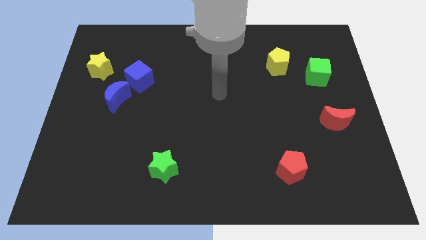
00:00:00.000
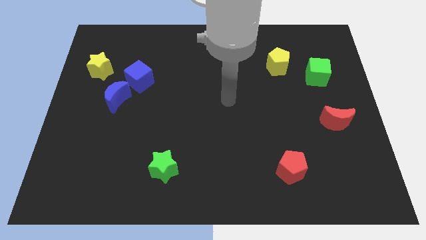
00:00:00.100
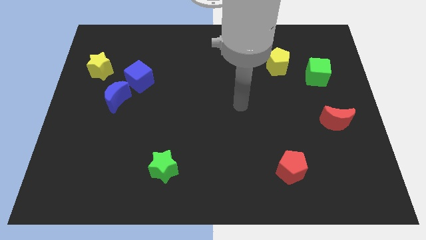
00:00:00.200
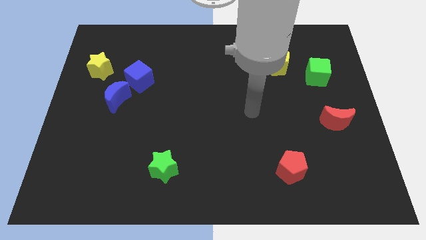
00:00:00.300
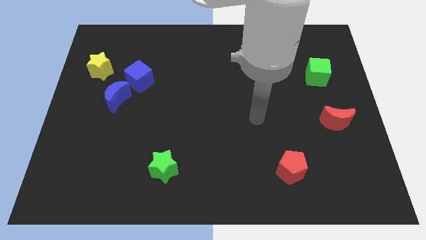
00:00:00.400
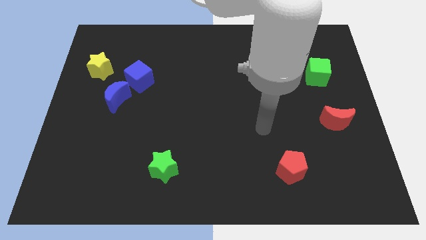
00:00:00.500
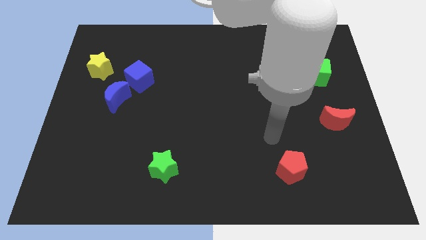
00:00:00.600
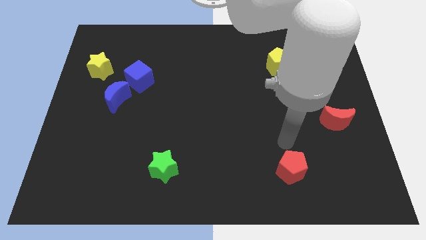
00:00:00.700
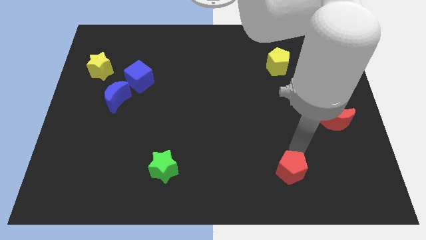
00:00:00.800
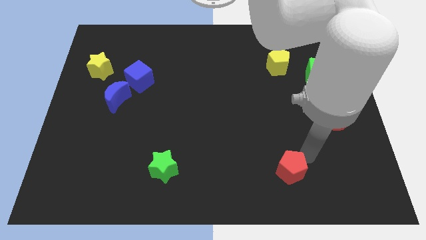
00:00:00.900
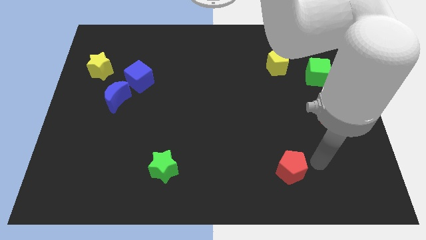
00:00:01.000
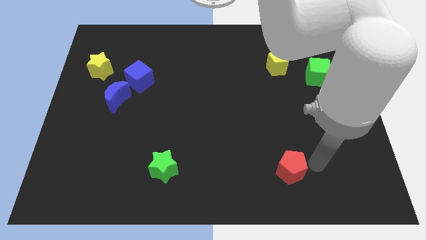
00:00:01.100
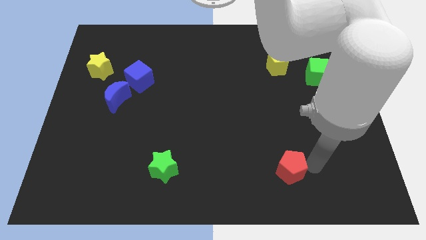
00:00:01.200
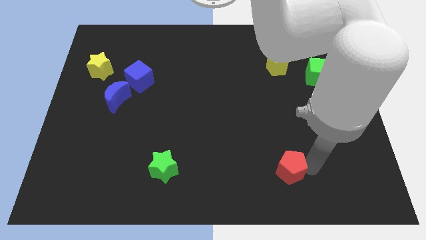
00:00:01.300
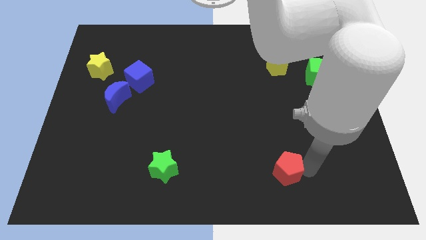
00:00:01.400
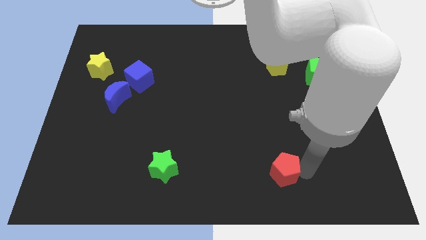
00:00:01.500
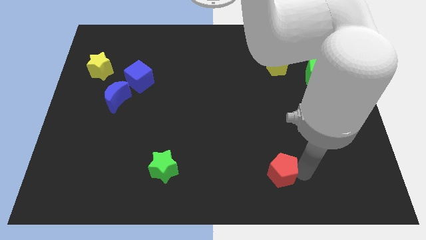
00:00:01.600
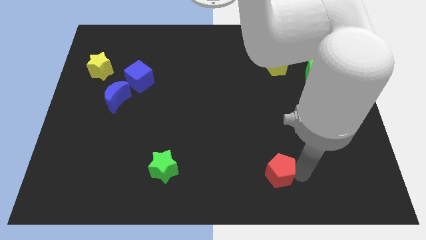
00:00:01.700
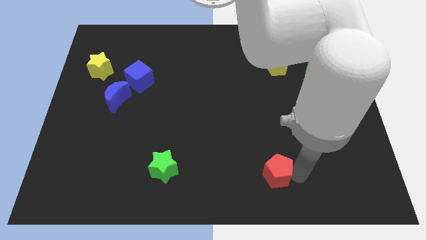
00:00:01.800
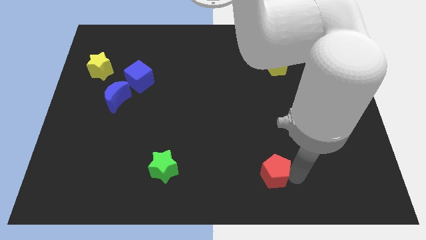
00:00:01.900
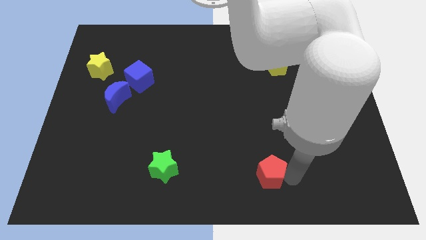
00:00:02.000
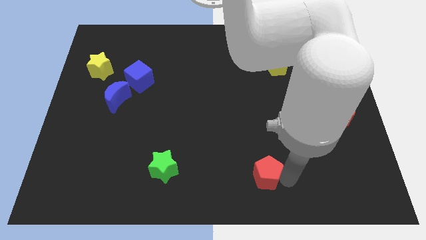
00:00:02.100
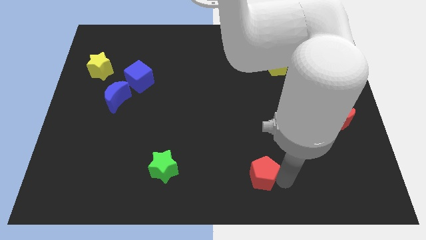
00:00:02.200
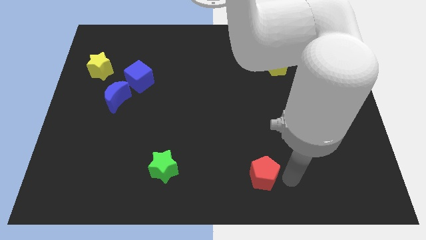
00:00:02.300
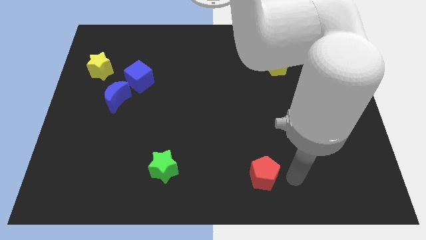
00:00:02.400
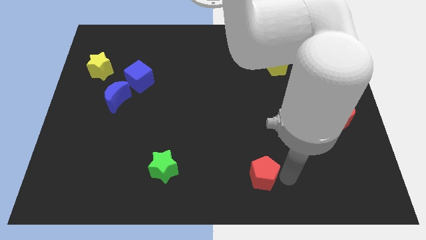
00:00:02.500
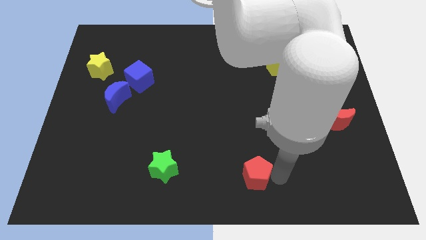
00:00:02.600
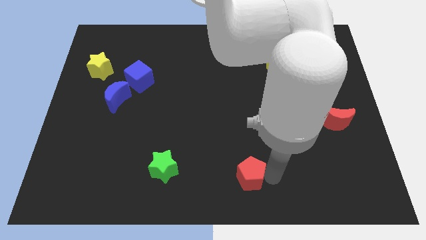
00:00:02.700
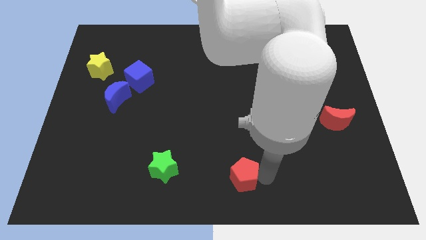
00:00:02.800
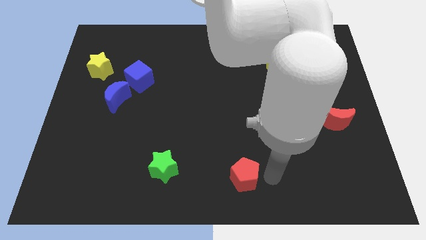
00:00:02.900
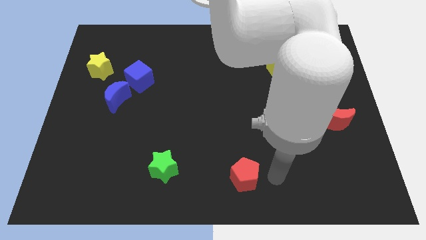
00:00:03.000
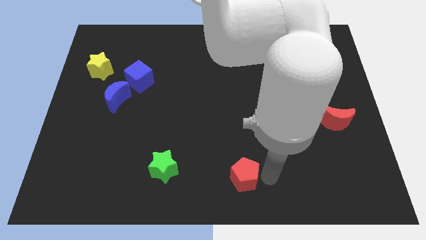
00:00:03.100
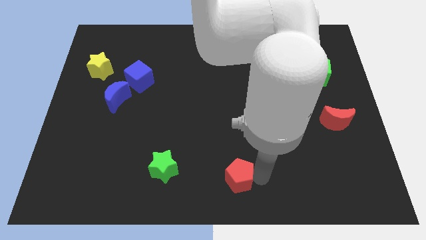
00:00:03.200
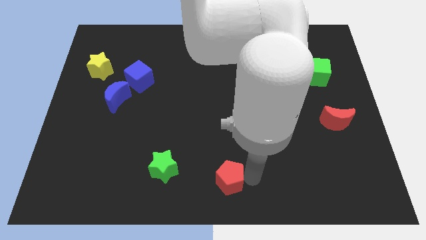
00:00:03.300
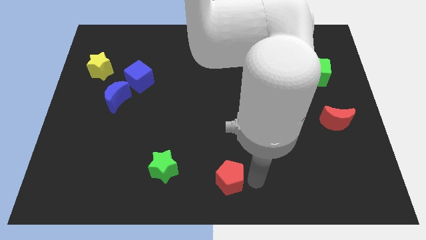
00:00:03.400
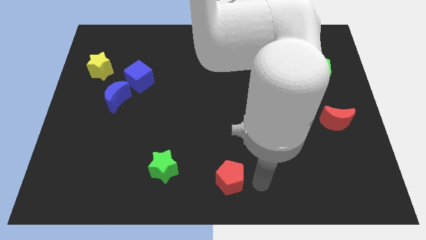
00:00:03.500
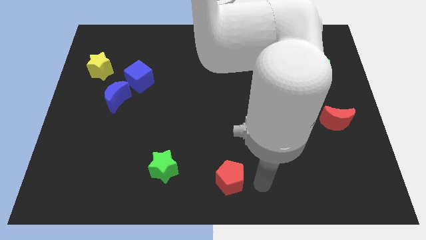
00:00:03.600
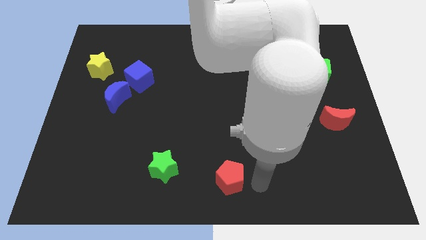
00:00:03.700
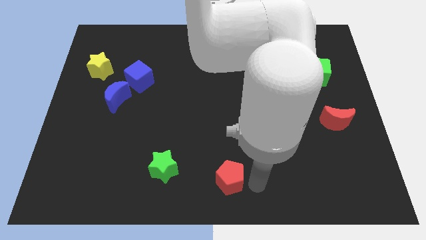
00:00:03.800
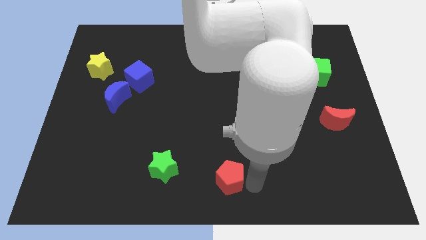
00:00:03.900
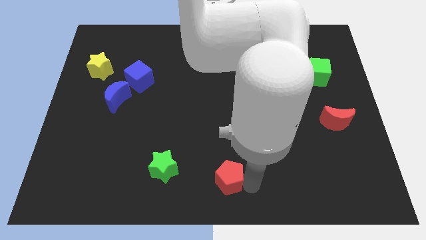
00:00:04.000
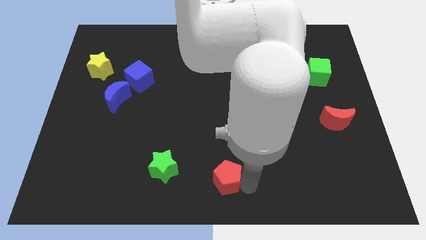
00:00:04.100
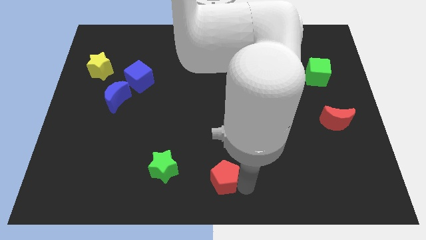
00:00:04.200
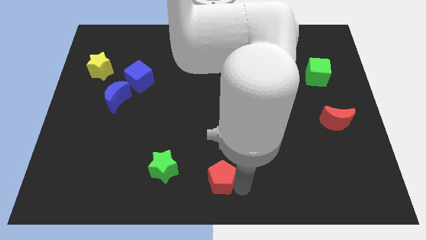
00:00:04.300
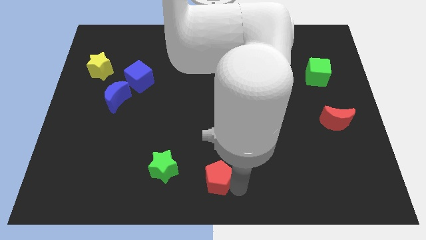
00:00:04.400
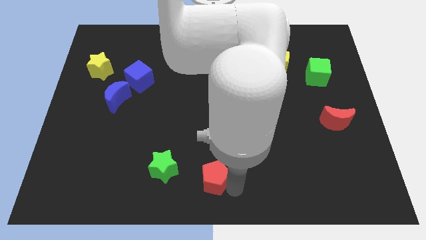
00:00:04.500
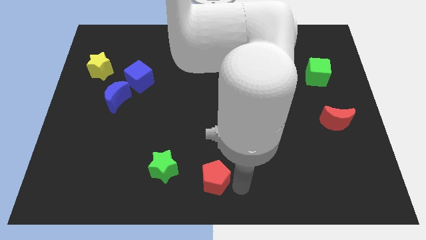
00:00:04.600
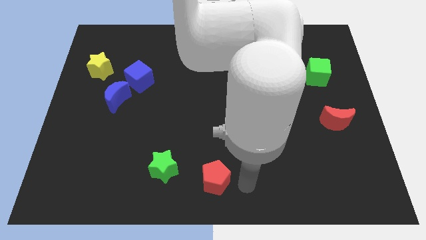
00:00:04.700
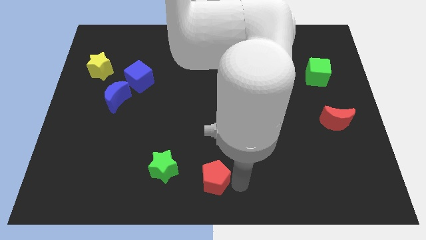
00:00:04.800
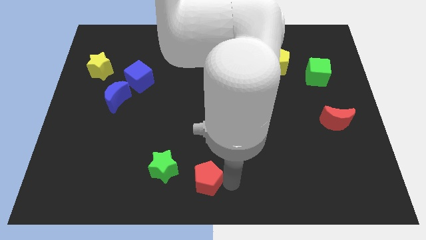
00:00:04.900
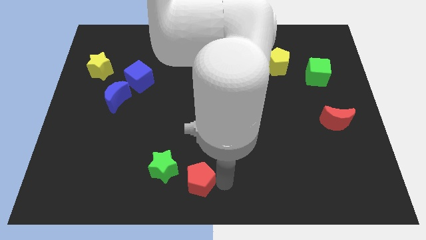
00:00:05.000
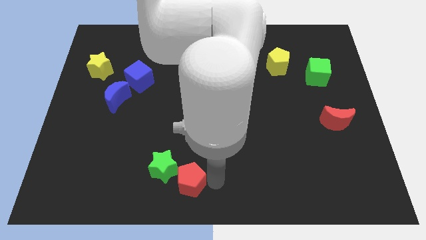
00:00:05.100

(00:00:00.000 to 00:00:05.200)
move the red pentagon left

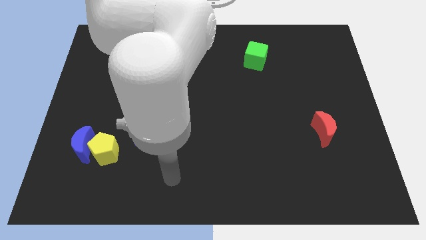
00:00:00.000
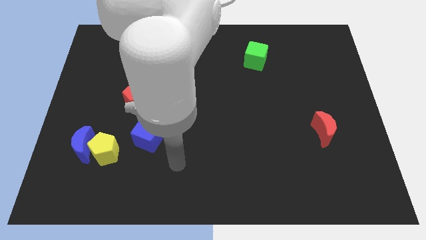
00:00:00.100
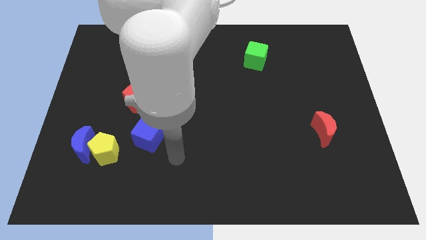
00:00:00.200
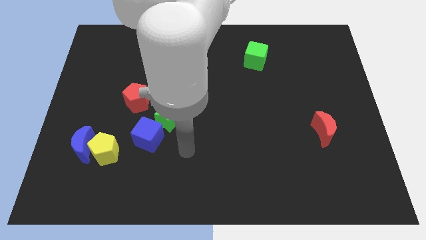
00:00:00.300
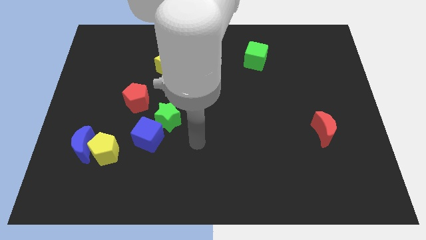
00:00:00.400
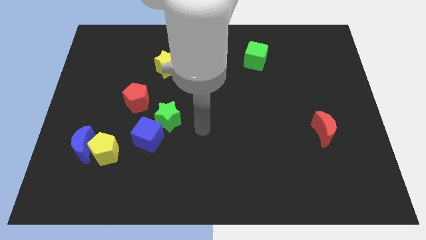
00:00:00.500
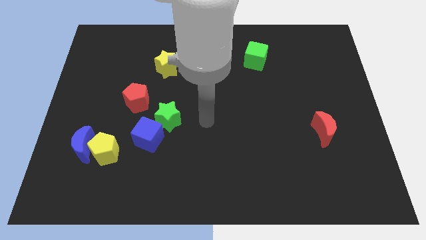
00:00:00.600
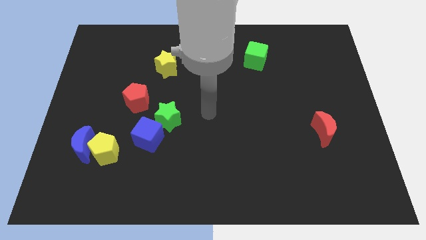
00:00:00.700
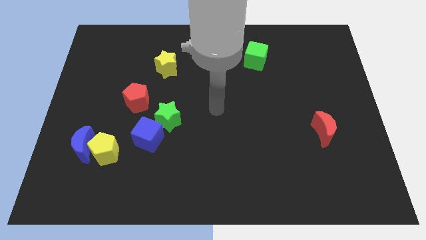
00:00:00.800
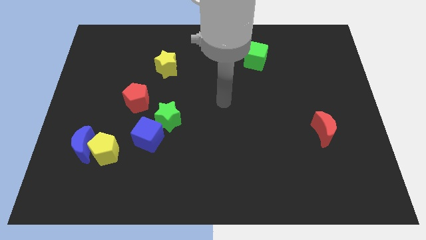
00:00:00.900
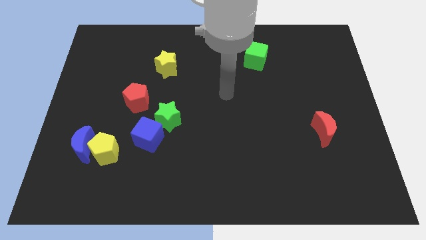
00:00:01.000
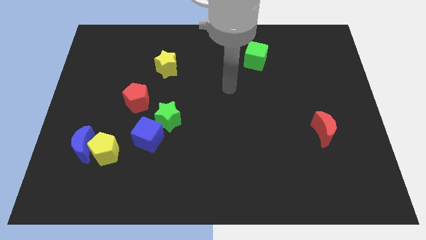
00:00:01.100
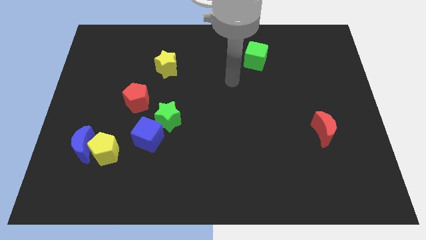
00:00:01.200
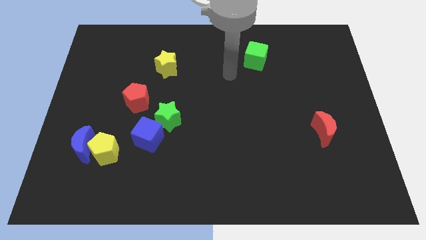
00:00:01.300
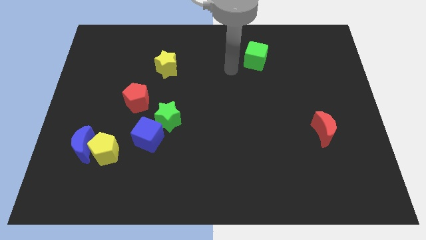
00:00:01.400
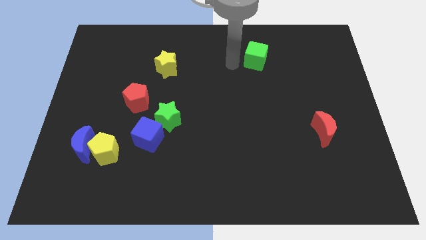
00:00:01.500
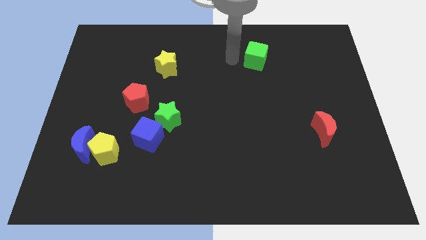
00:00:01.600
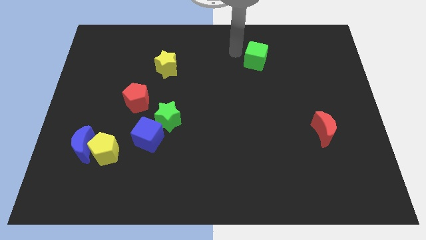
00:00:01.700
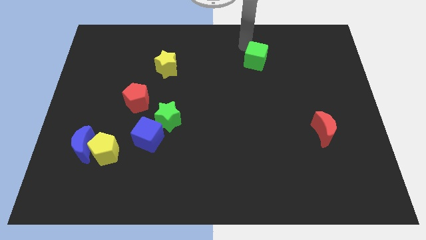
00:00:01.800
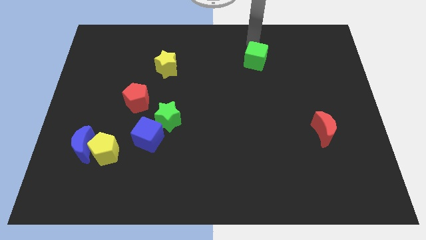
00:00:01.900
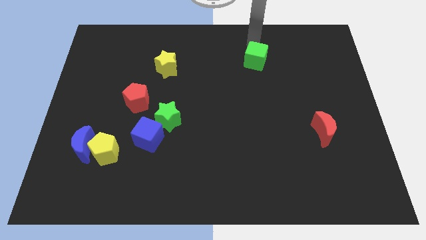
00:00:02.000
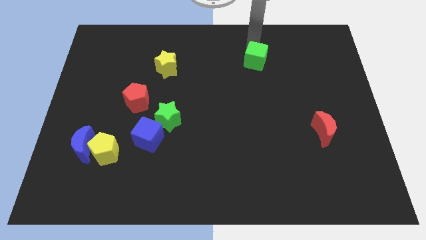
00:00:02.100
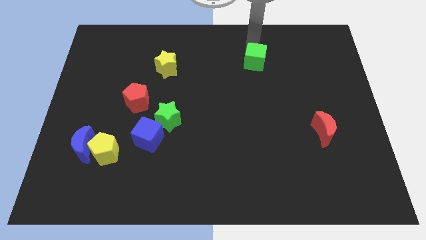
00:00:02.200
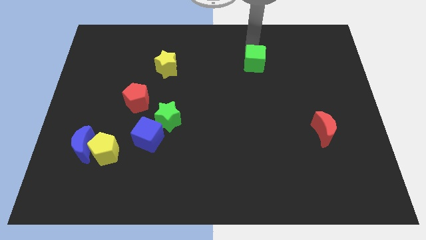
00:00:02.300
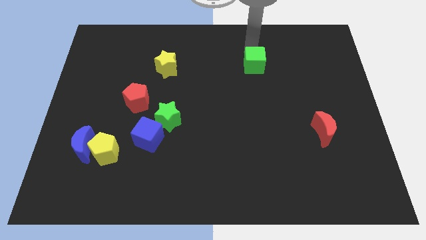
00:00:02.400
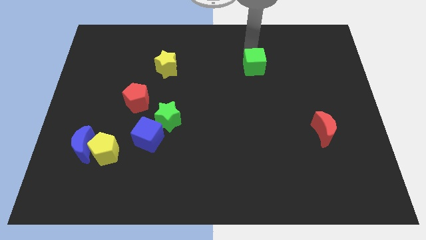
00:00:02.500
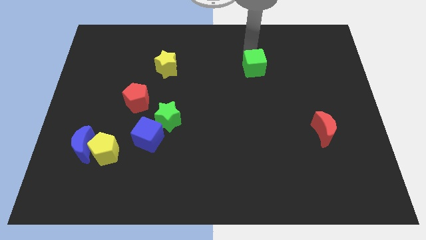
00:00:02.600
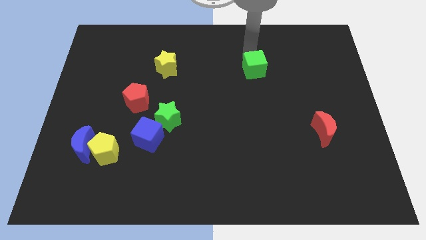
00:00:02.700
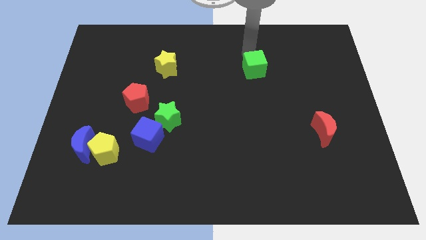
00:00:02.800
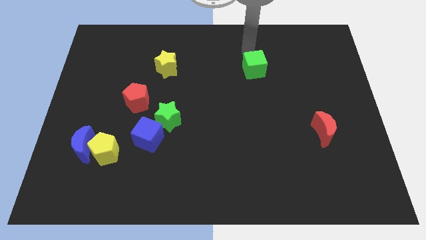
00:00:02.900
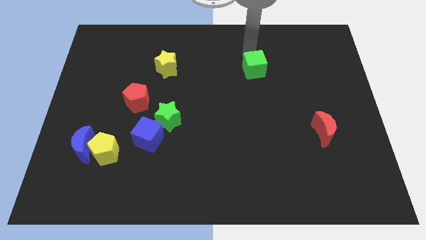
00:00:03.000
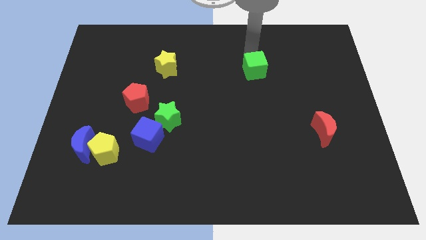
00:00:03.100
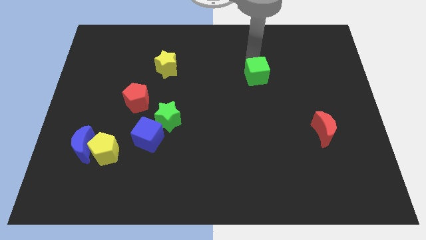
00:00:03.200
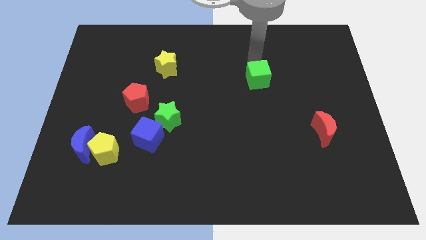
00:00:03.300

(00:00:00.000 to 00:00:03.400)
move the green cube a bit downwards
